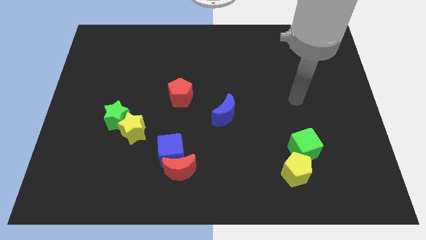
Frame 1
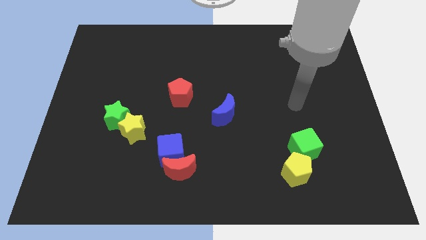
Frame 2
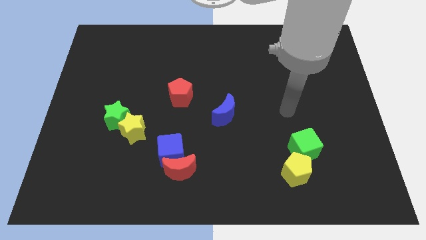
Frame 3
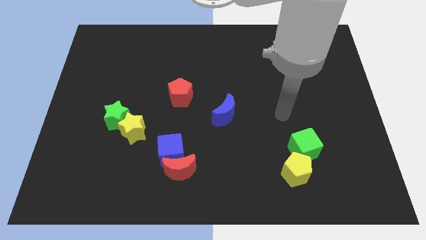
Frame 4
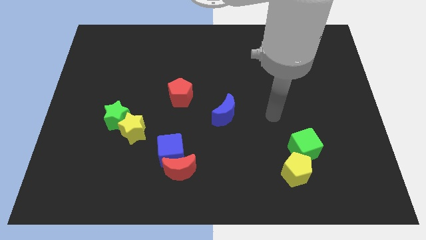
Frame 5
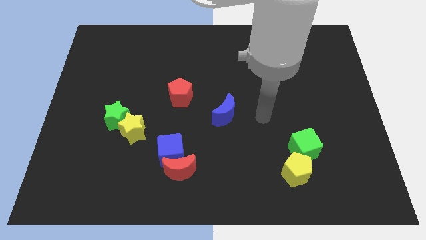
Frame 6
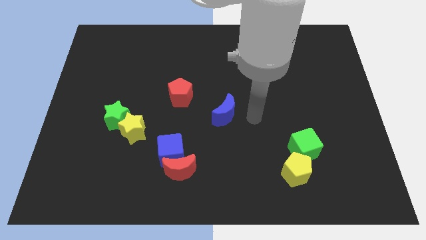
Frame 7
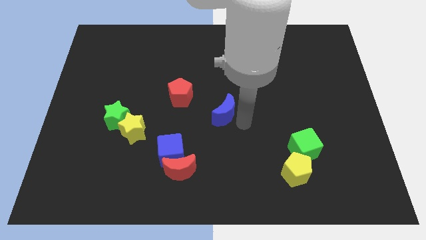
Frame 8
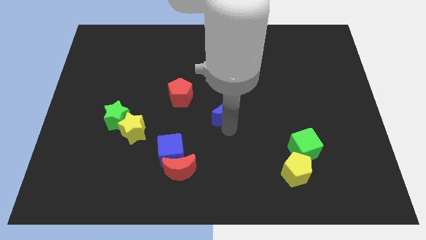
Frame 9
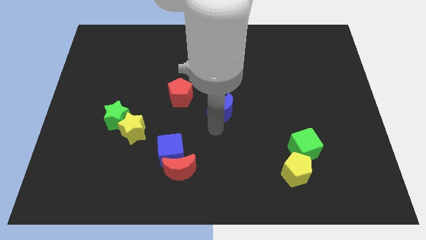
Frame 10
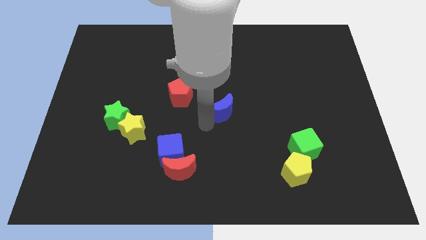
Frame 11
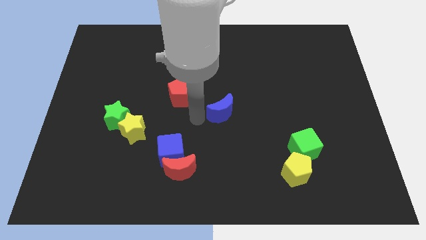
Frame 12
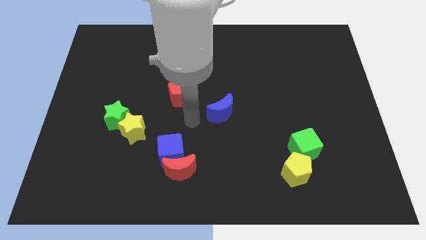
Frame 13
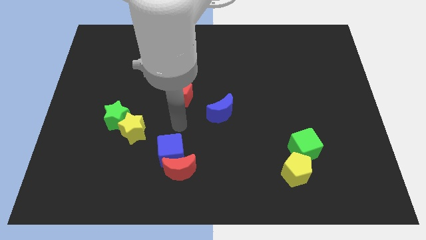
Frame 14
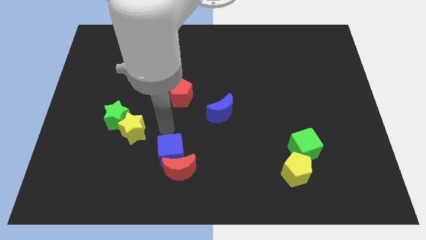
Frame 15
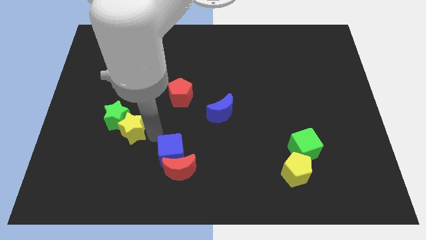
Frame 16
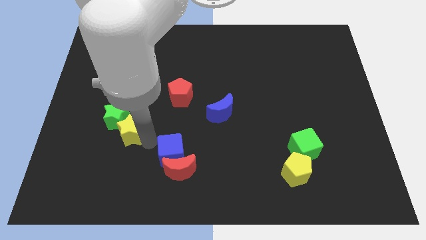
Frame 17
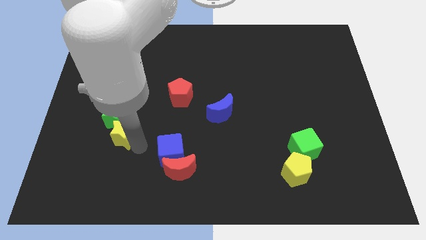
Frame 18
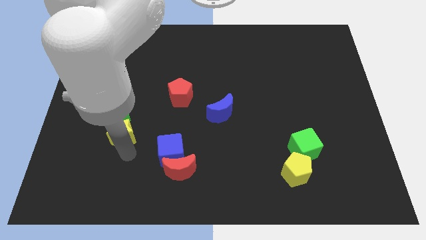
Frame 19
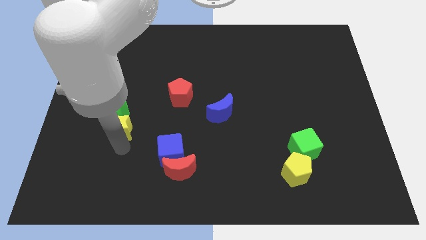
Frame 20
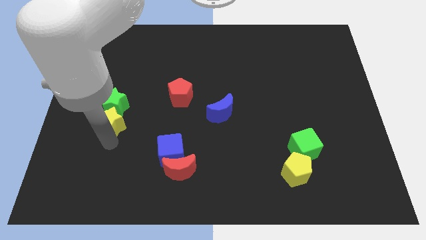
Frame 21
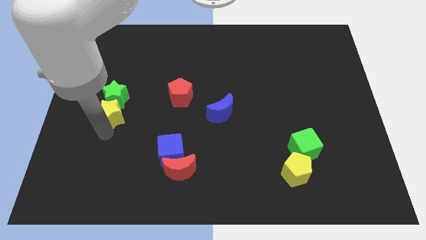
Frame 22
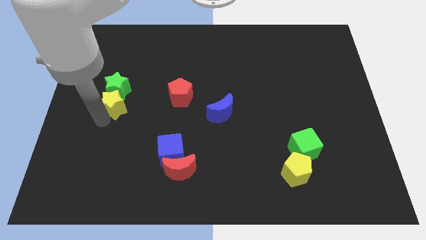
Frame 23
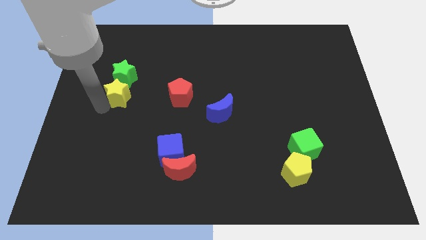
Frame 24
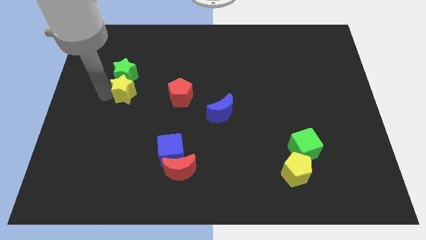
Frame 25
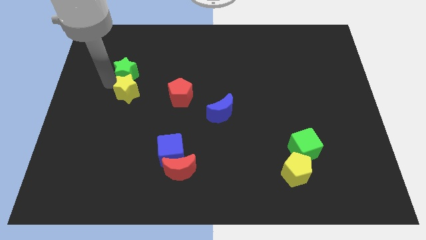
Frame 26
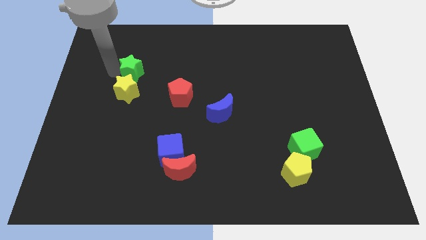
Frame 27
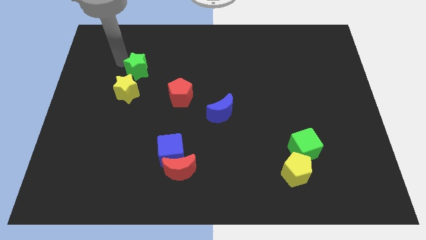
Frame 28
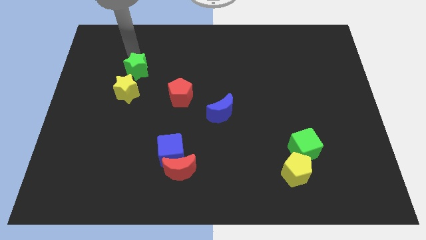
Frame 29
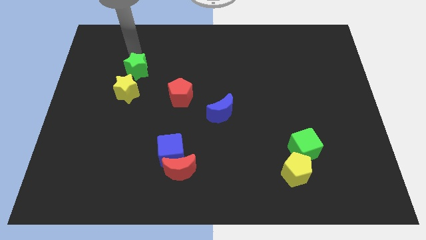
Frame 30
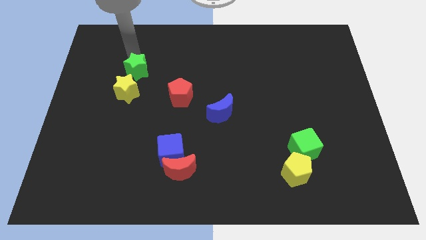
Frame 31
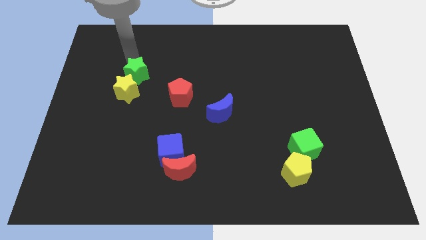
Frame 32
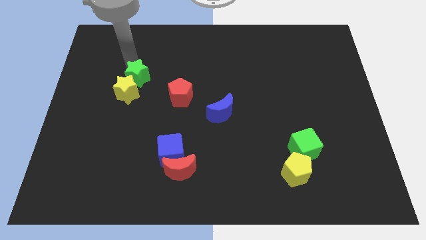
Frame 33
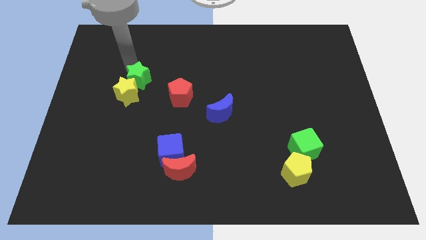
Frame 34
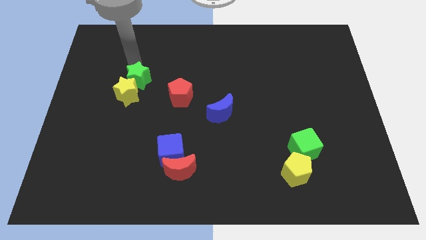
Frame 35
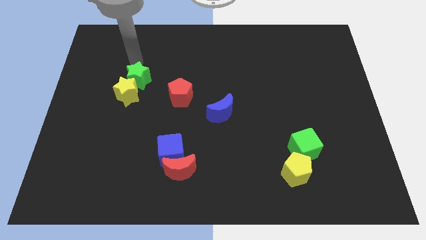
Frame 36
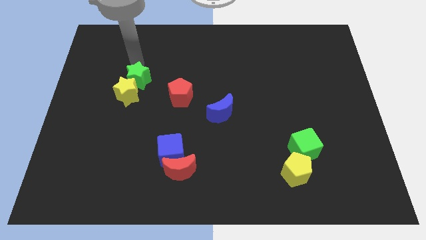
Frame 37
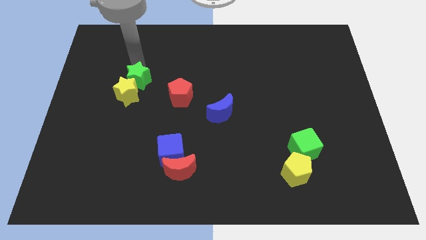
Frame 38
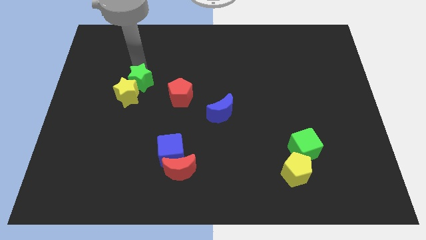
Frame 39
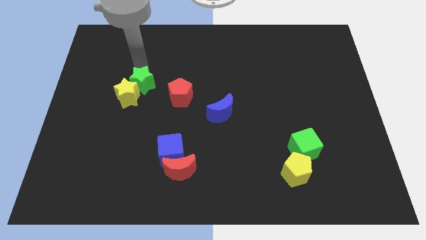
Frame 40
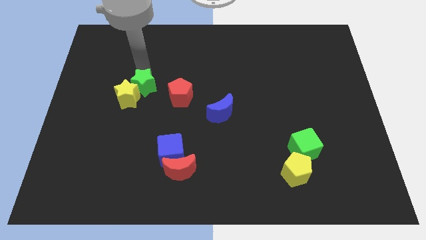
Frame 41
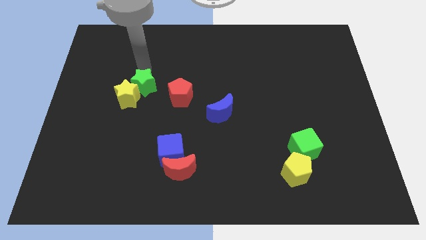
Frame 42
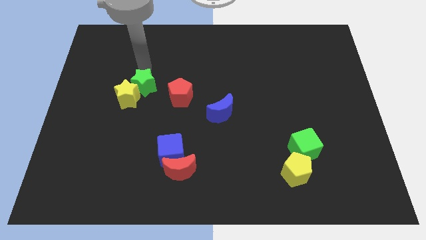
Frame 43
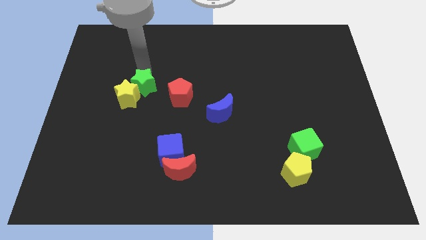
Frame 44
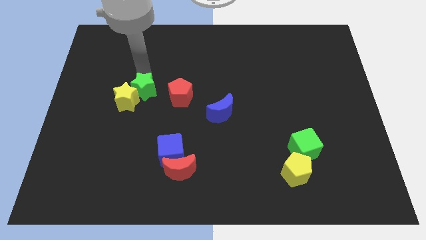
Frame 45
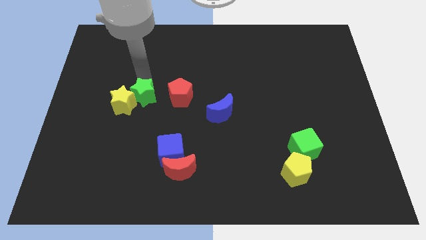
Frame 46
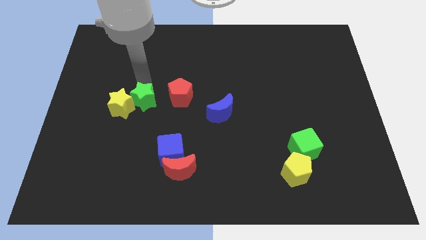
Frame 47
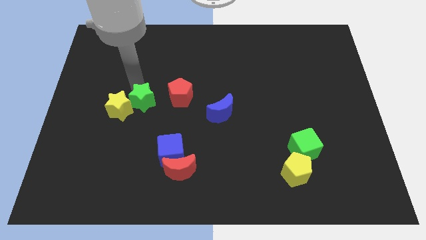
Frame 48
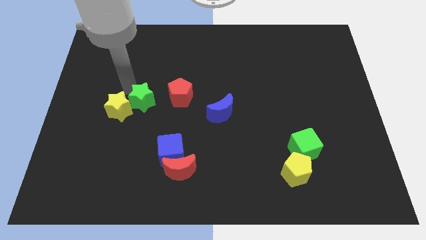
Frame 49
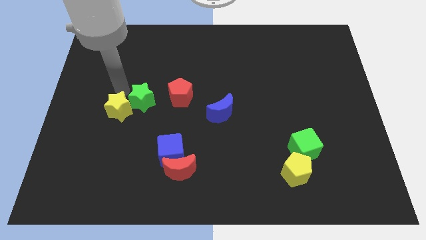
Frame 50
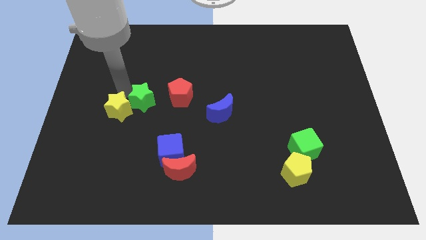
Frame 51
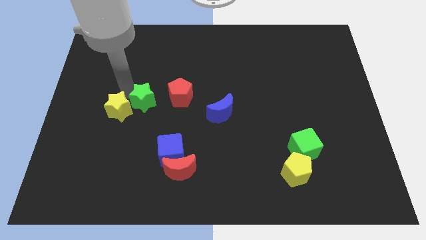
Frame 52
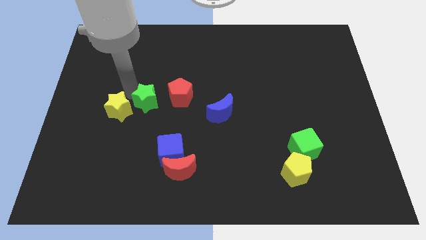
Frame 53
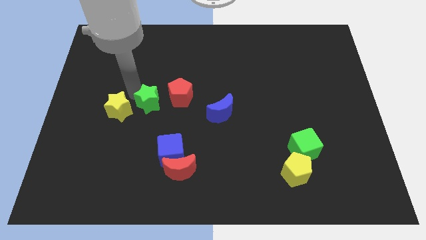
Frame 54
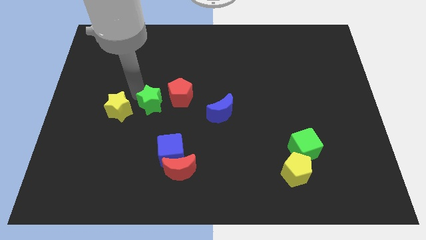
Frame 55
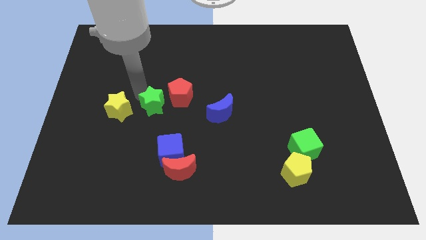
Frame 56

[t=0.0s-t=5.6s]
slide the green star slightly to the right

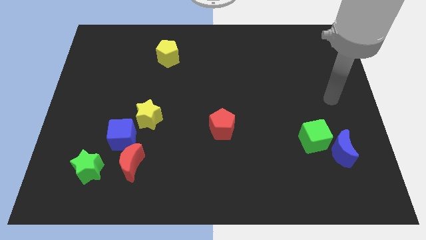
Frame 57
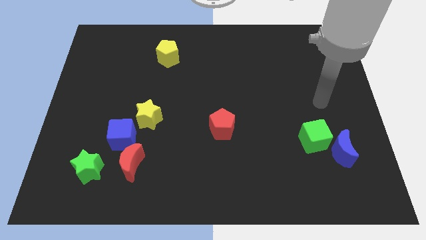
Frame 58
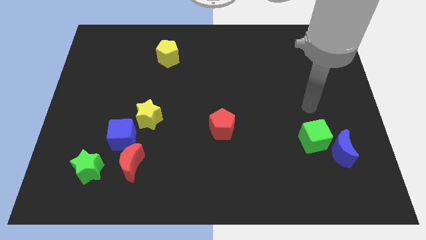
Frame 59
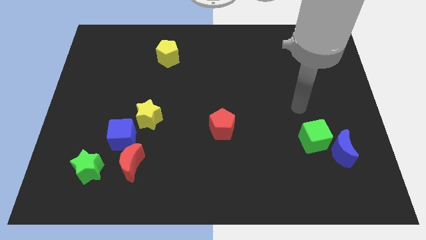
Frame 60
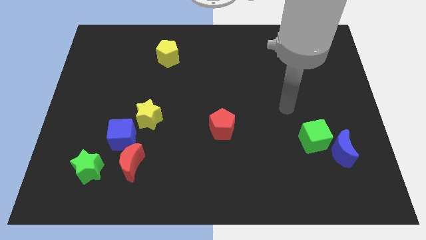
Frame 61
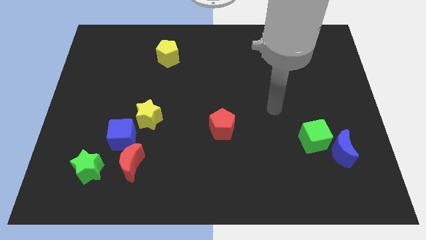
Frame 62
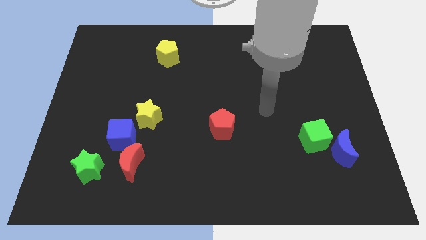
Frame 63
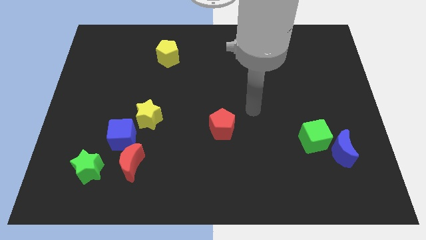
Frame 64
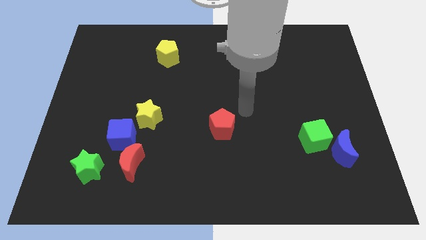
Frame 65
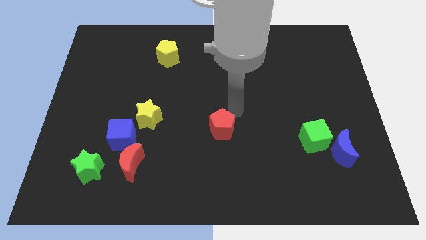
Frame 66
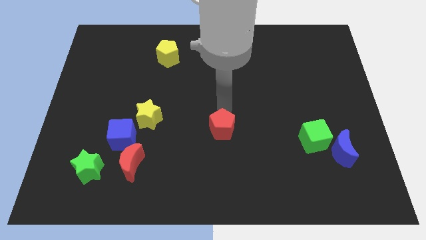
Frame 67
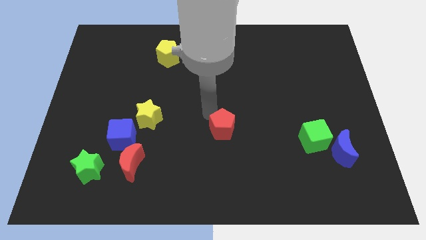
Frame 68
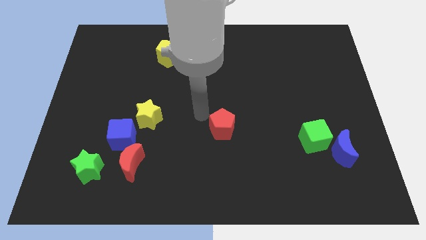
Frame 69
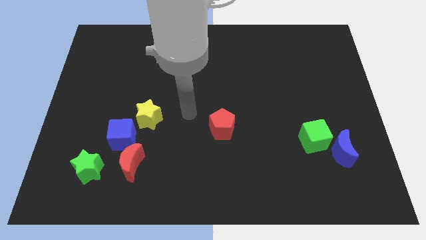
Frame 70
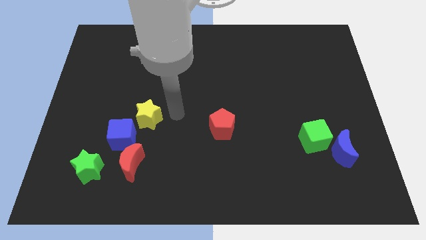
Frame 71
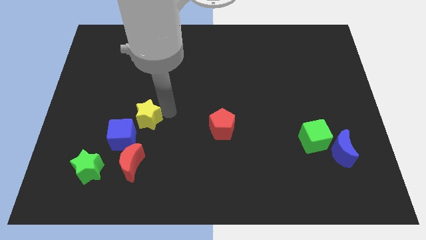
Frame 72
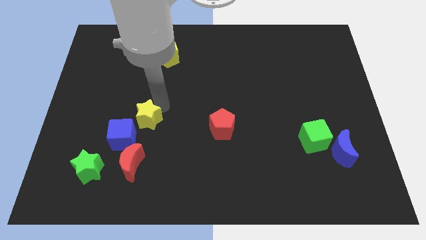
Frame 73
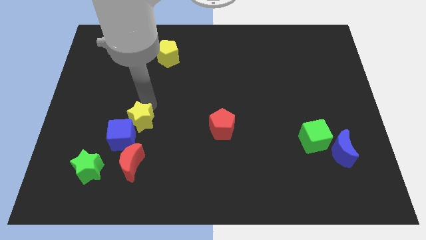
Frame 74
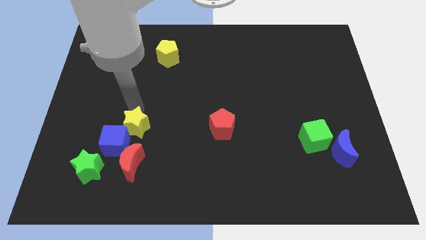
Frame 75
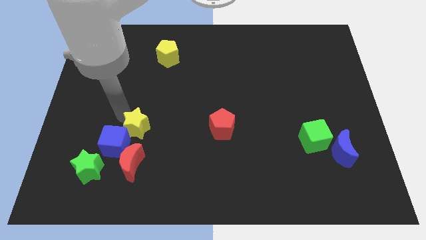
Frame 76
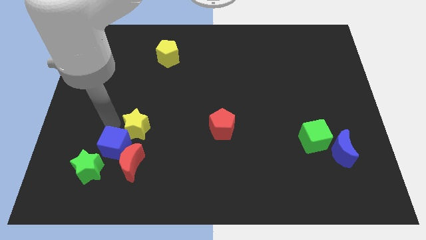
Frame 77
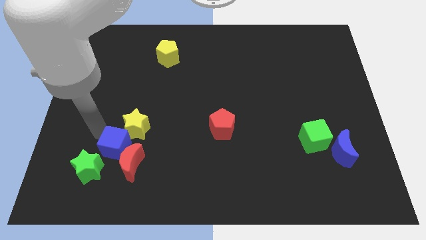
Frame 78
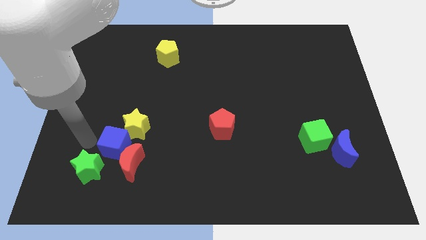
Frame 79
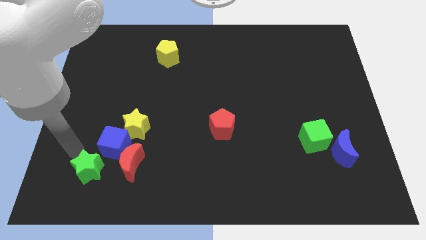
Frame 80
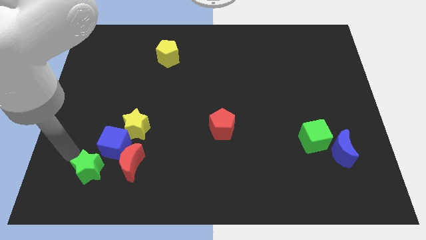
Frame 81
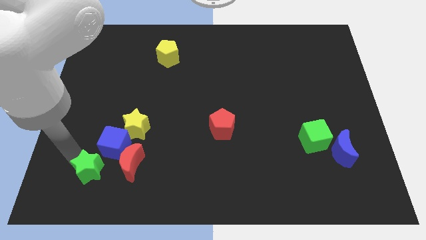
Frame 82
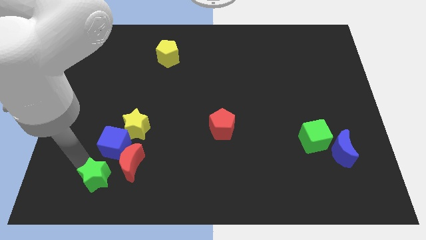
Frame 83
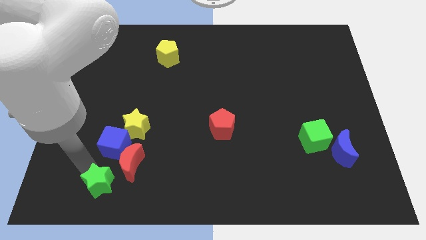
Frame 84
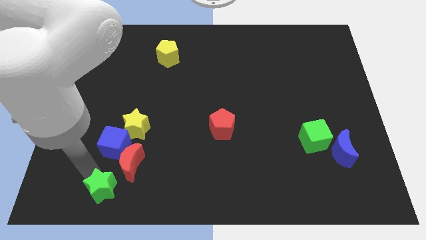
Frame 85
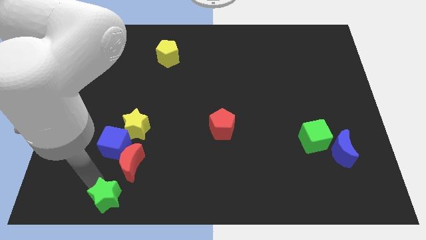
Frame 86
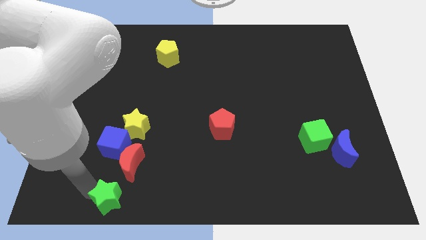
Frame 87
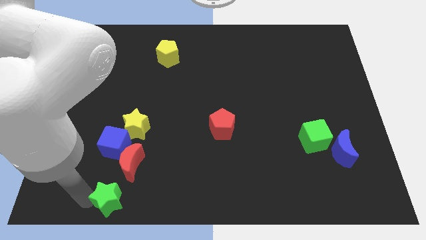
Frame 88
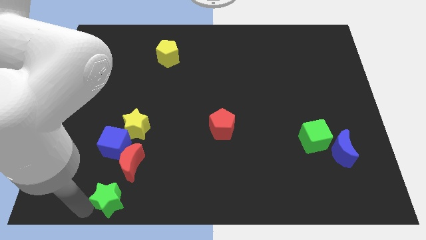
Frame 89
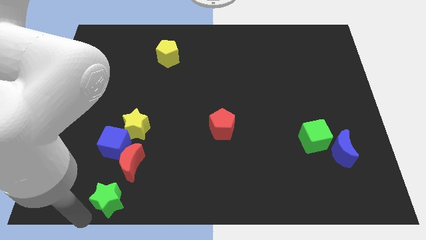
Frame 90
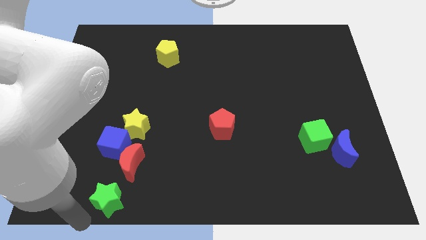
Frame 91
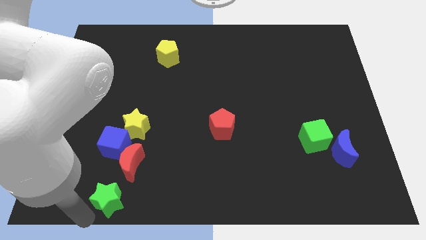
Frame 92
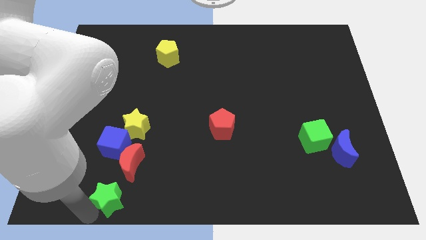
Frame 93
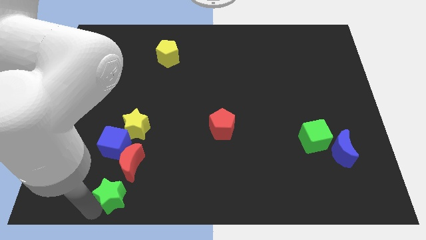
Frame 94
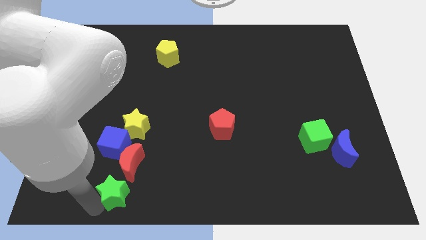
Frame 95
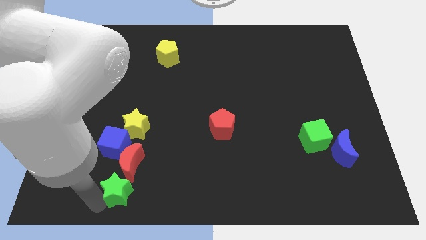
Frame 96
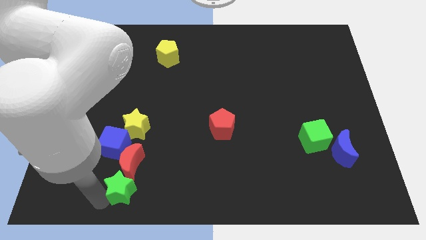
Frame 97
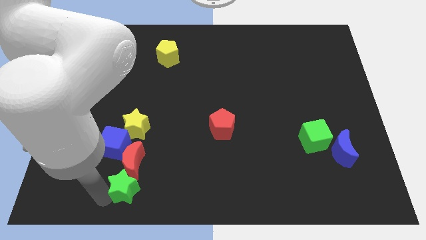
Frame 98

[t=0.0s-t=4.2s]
move the green star right somewhat
